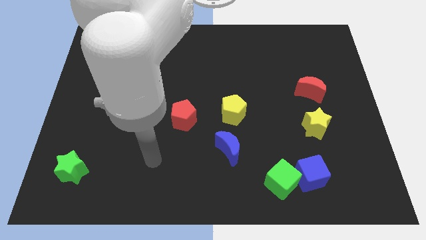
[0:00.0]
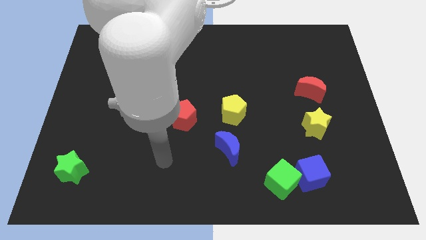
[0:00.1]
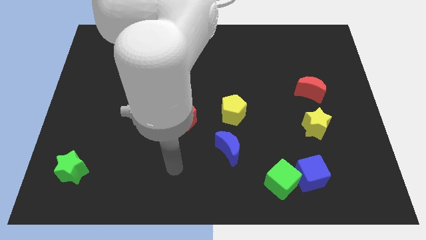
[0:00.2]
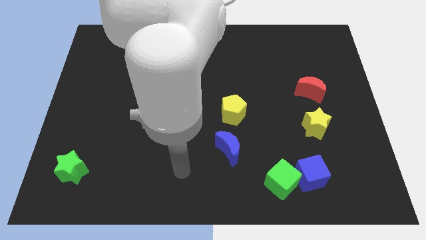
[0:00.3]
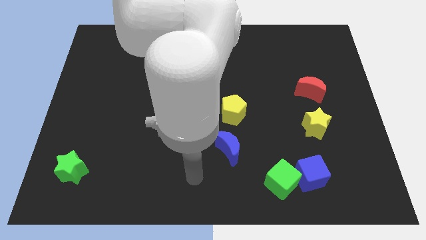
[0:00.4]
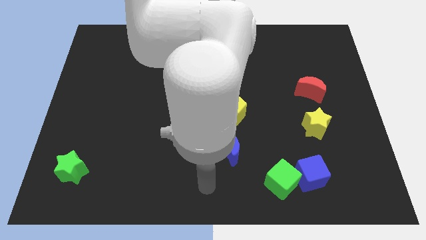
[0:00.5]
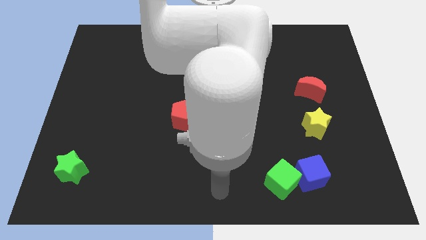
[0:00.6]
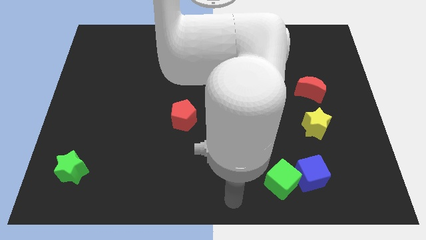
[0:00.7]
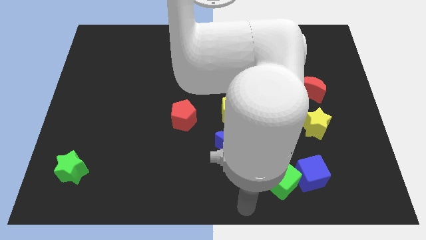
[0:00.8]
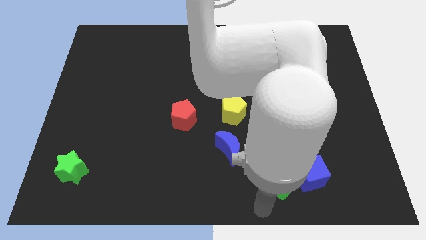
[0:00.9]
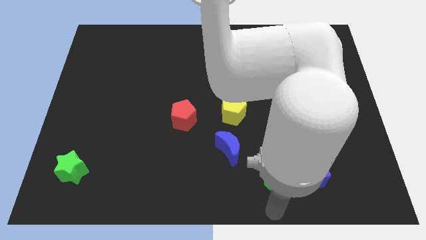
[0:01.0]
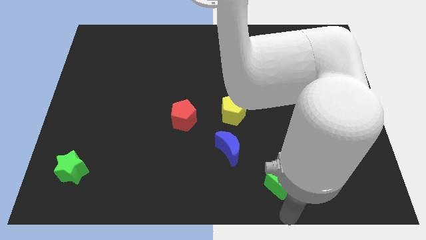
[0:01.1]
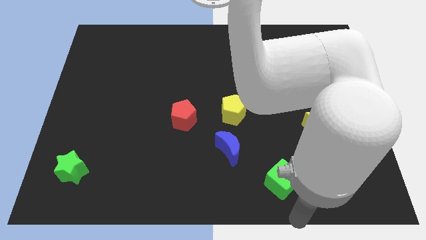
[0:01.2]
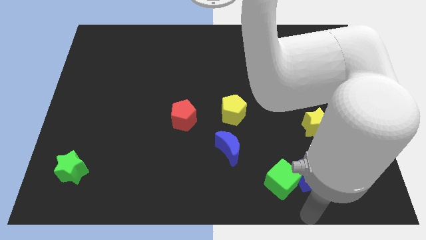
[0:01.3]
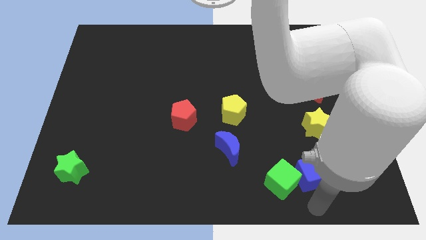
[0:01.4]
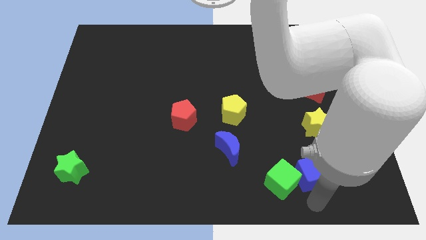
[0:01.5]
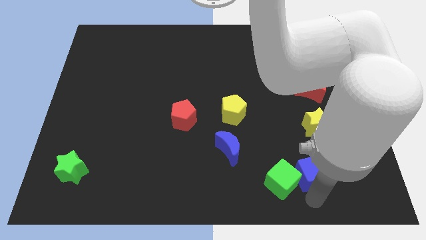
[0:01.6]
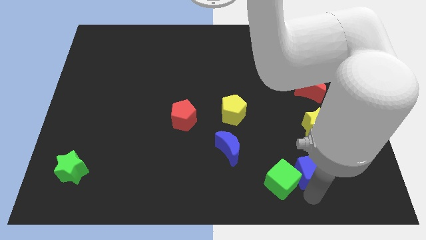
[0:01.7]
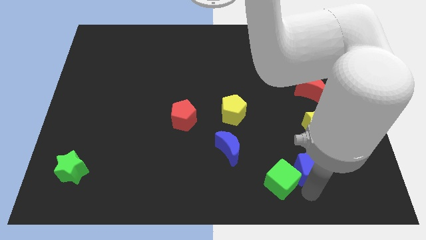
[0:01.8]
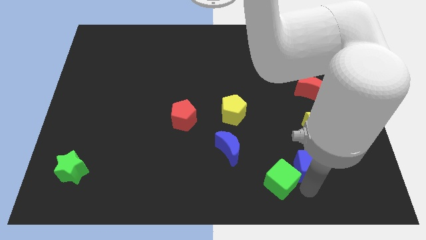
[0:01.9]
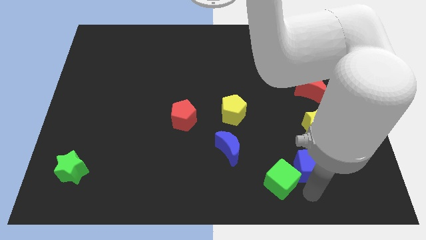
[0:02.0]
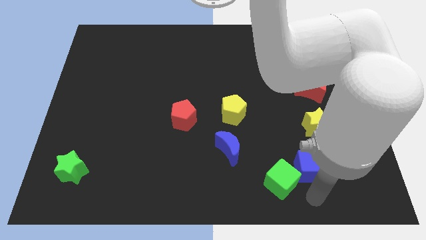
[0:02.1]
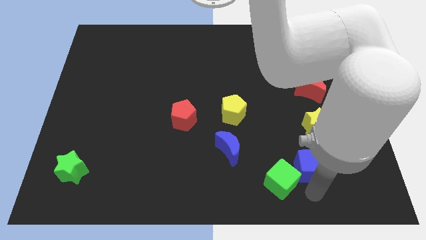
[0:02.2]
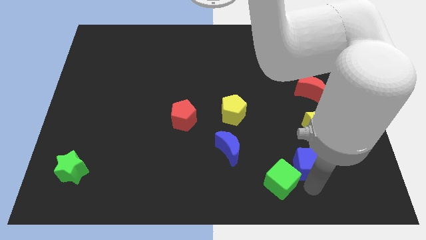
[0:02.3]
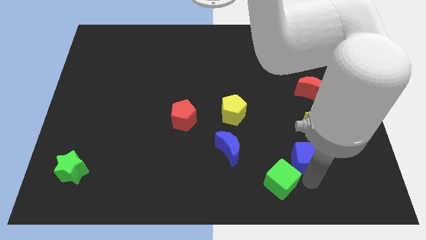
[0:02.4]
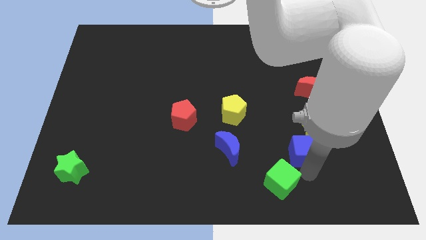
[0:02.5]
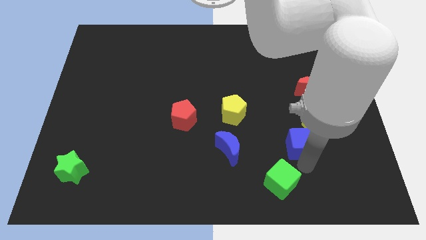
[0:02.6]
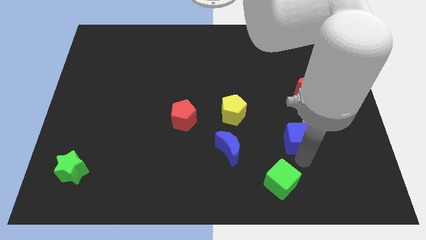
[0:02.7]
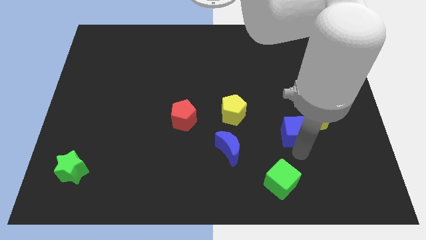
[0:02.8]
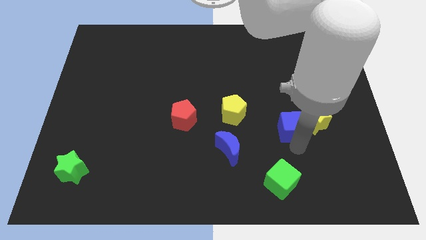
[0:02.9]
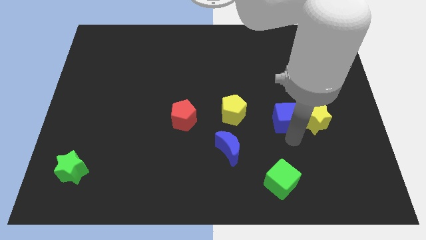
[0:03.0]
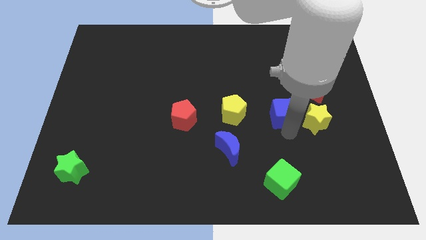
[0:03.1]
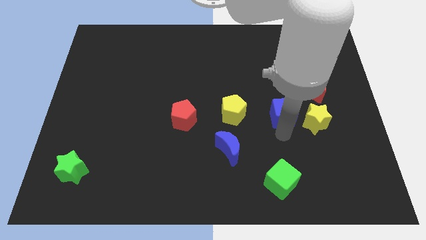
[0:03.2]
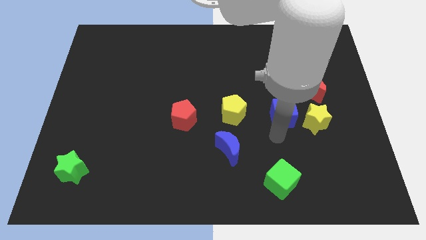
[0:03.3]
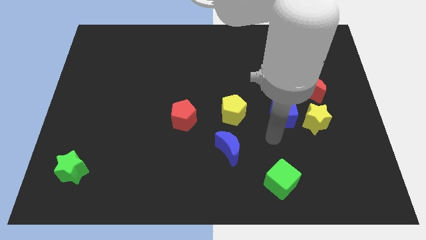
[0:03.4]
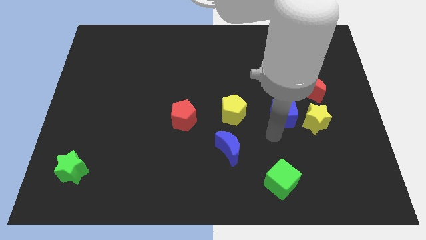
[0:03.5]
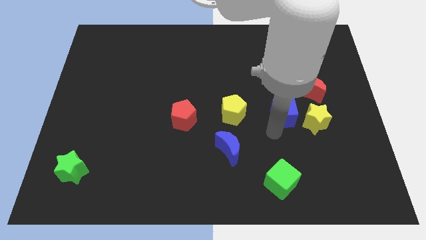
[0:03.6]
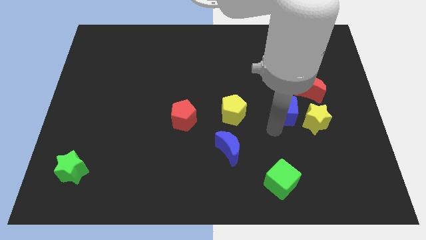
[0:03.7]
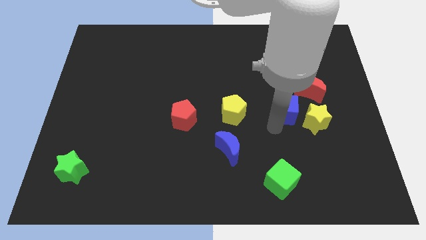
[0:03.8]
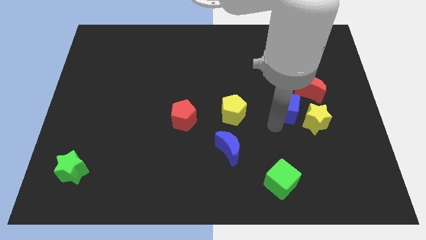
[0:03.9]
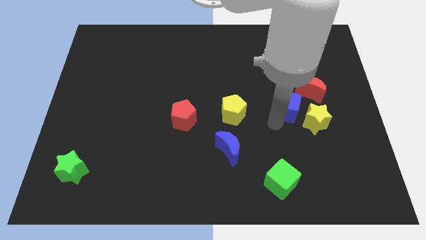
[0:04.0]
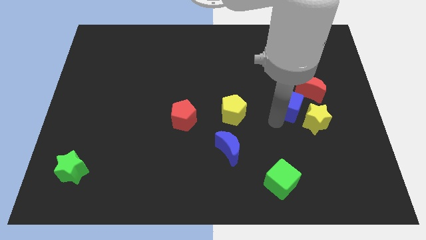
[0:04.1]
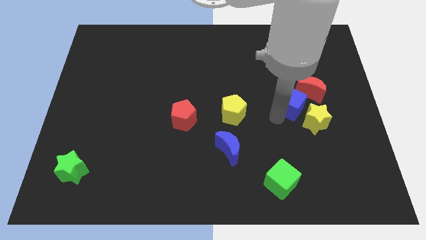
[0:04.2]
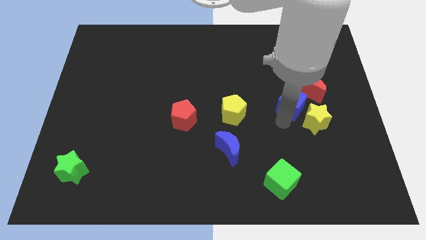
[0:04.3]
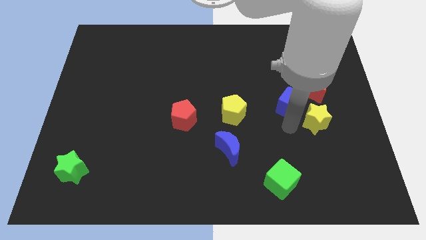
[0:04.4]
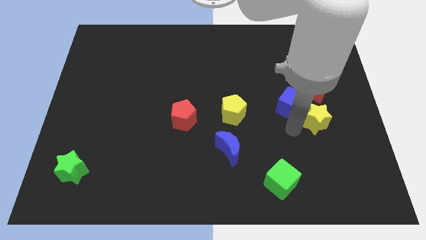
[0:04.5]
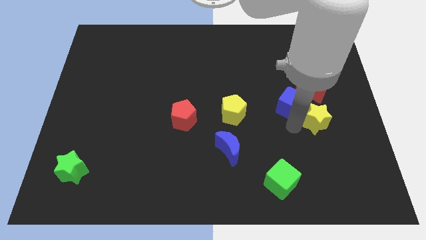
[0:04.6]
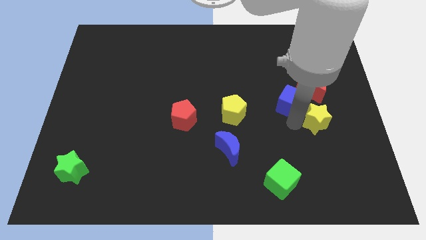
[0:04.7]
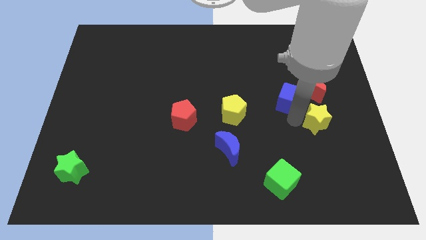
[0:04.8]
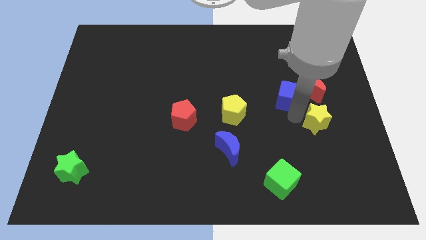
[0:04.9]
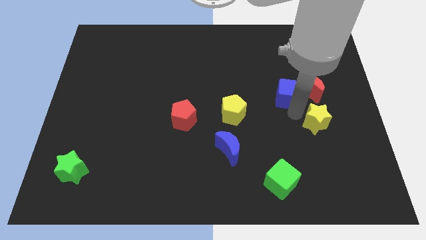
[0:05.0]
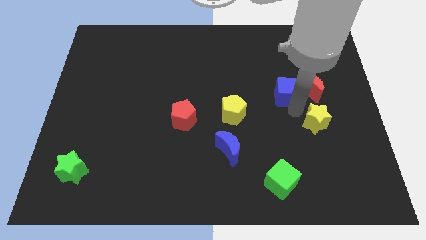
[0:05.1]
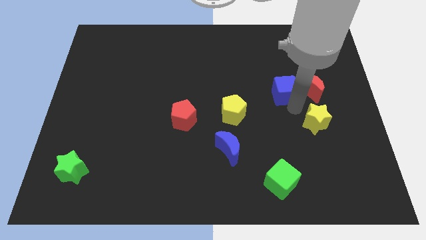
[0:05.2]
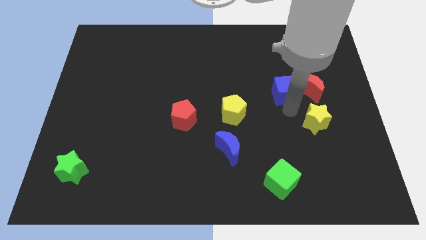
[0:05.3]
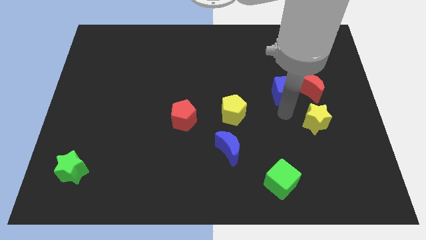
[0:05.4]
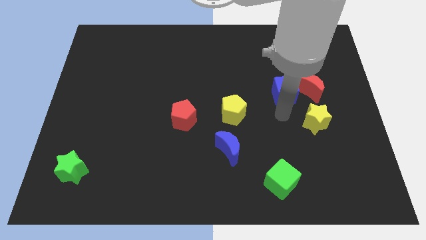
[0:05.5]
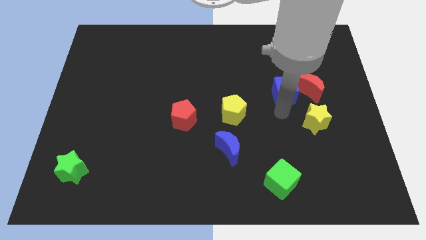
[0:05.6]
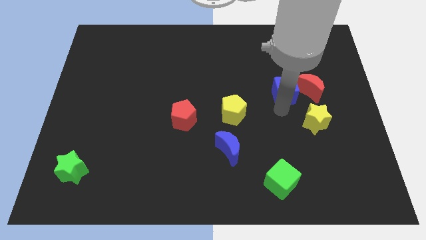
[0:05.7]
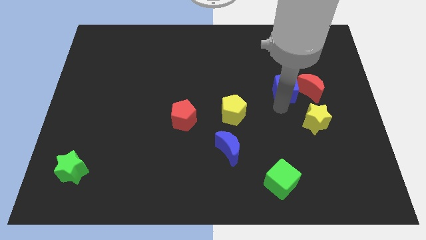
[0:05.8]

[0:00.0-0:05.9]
push the blue cube to the top left side of the red moon

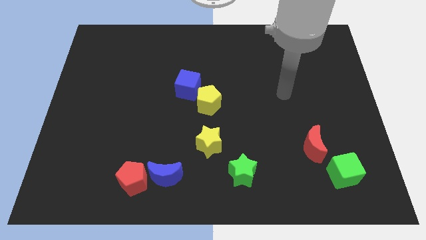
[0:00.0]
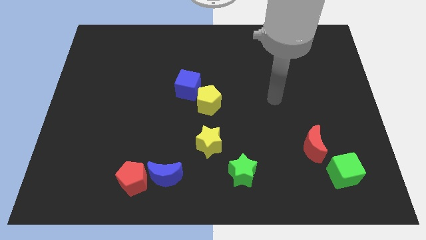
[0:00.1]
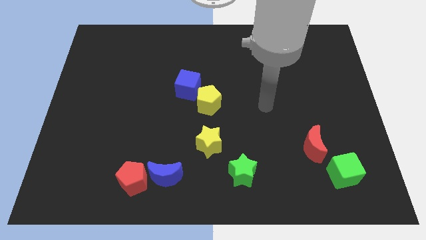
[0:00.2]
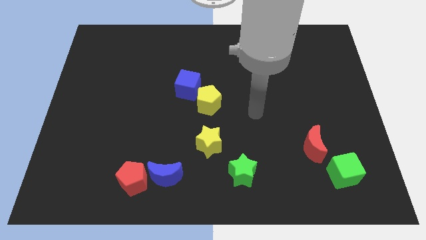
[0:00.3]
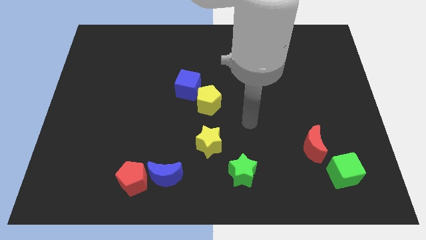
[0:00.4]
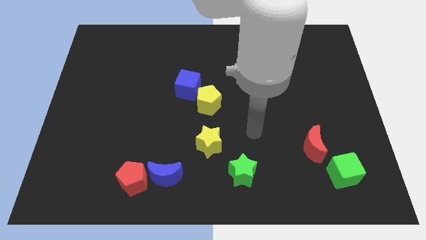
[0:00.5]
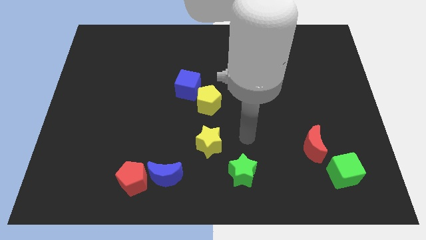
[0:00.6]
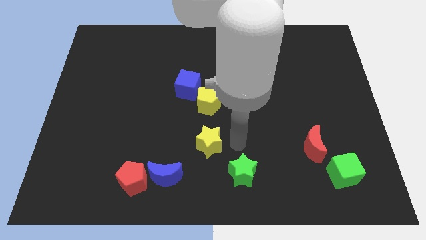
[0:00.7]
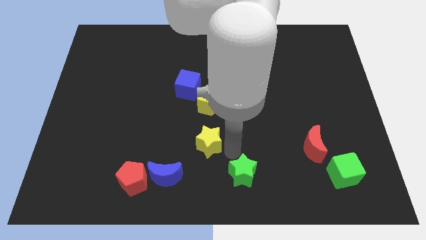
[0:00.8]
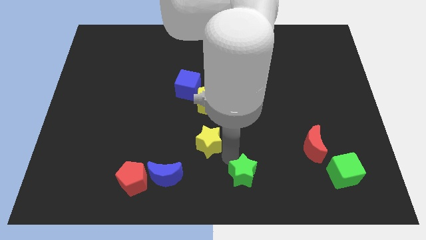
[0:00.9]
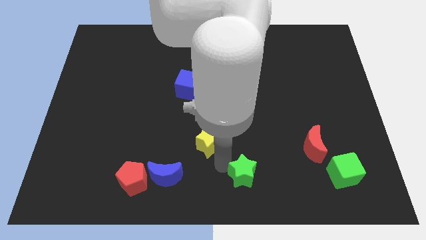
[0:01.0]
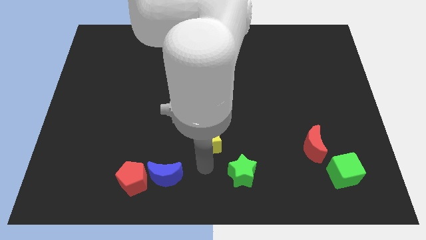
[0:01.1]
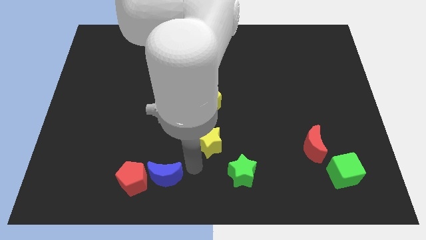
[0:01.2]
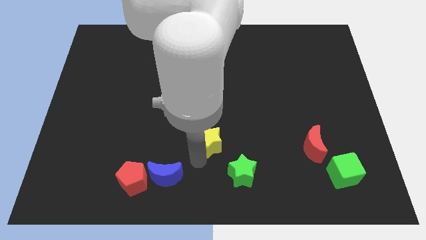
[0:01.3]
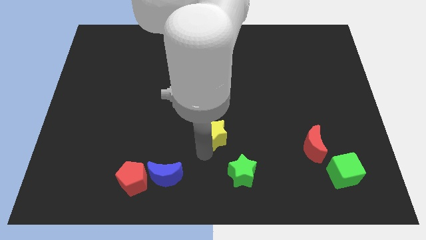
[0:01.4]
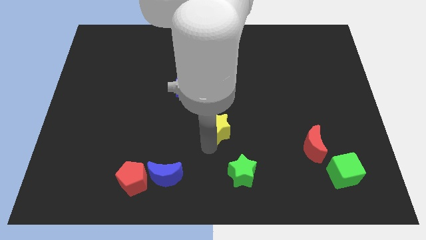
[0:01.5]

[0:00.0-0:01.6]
put the yellow star to the bottom right side of the yellow pentagon

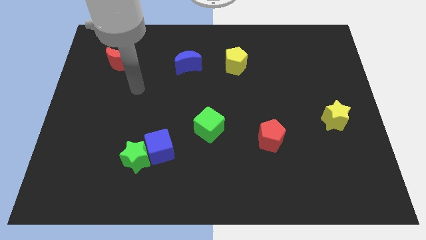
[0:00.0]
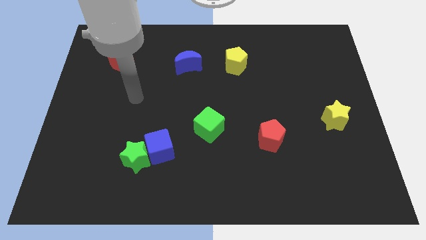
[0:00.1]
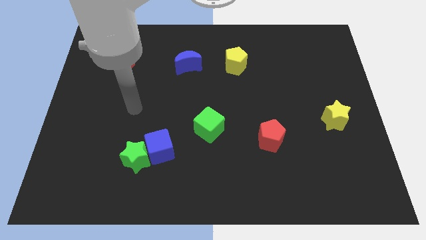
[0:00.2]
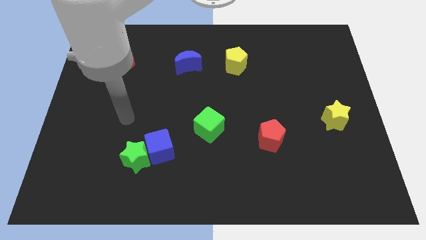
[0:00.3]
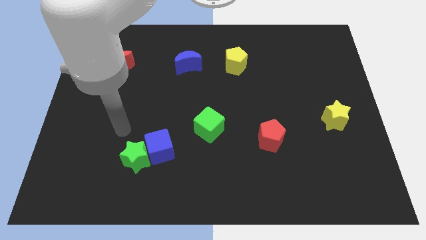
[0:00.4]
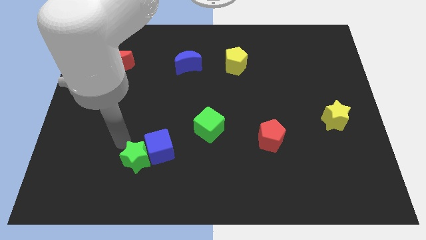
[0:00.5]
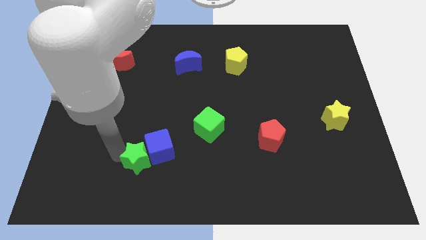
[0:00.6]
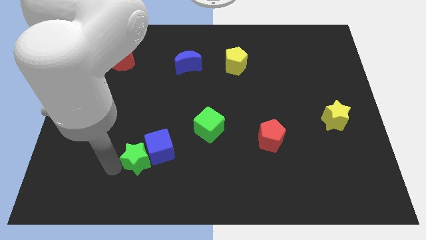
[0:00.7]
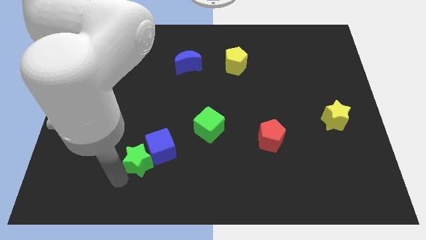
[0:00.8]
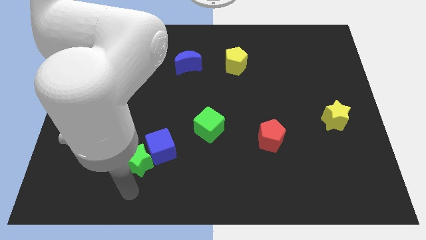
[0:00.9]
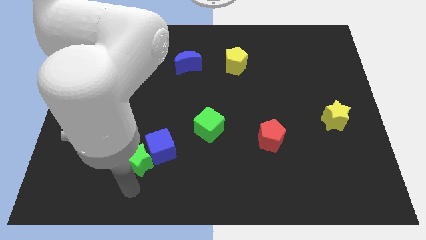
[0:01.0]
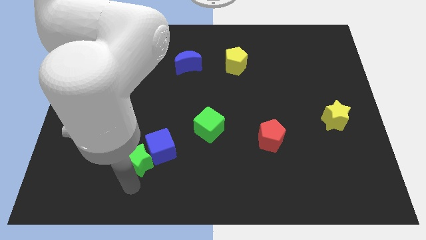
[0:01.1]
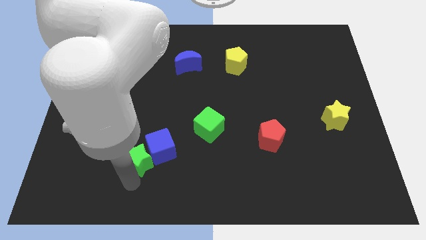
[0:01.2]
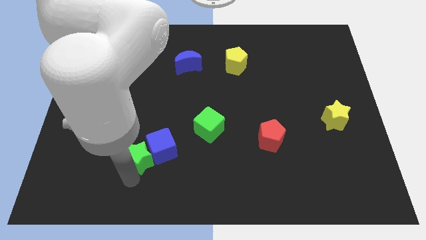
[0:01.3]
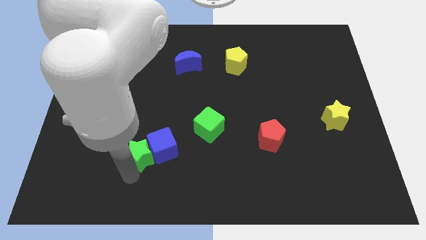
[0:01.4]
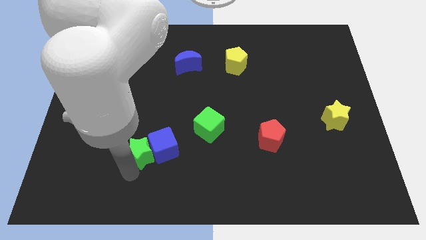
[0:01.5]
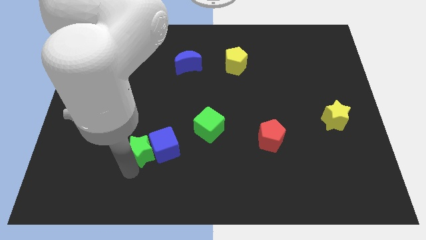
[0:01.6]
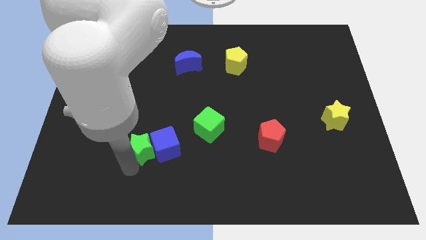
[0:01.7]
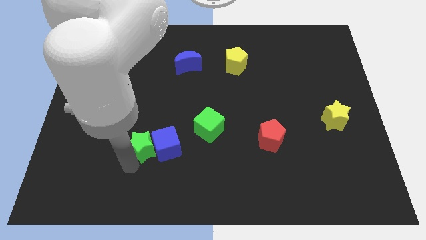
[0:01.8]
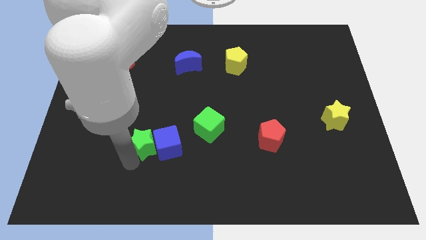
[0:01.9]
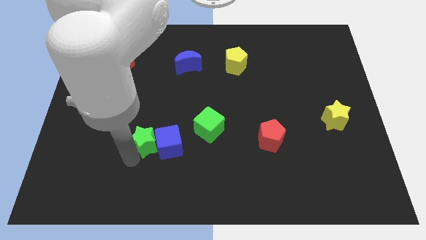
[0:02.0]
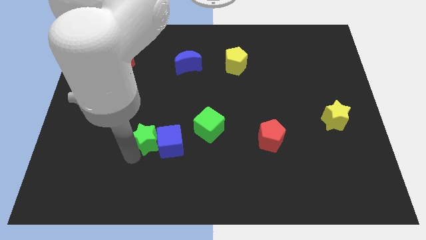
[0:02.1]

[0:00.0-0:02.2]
move the green star just left of the green cube
